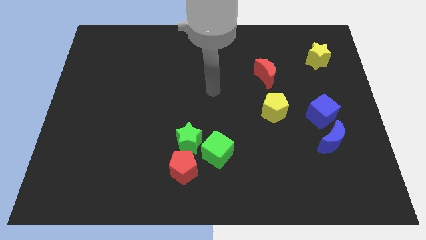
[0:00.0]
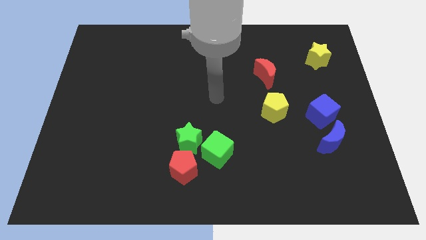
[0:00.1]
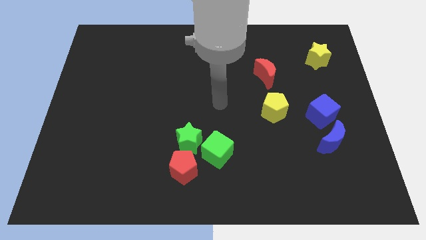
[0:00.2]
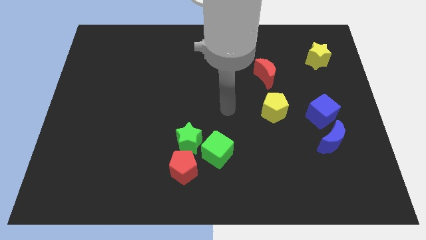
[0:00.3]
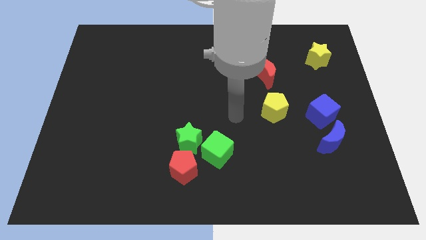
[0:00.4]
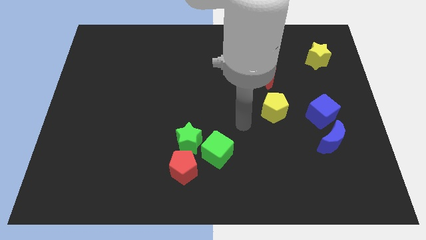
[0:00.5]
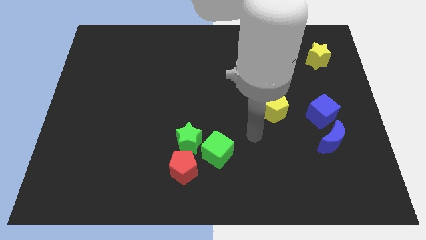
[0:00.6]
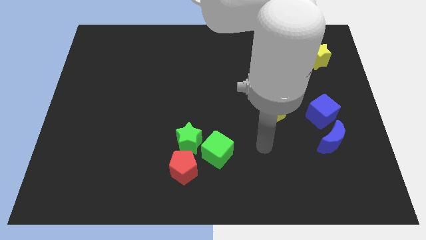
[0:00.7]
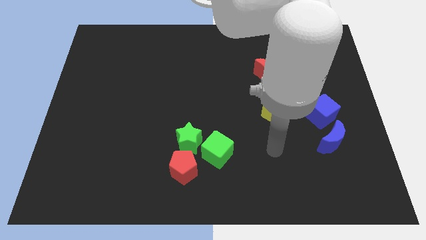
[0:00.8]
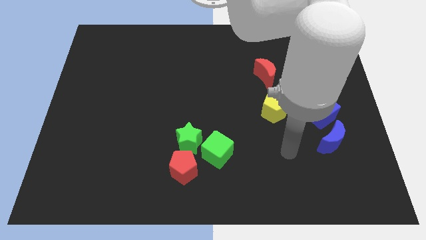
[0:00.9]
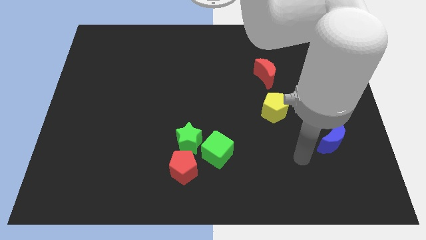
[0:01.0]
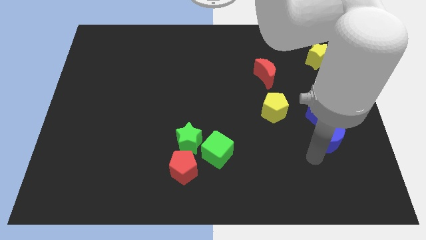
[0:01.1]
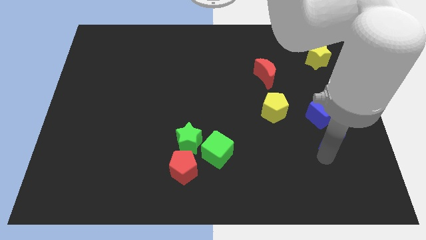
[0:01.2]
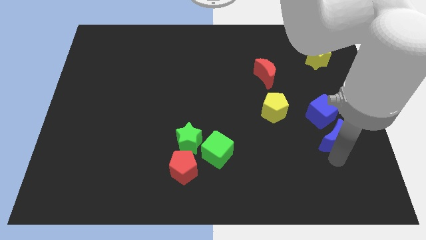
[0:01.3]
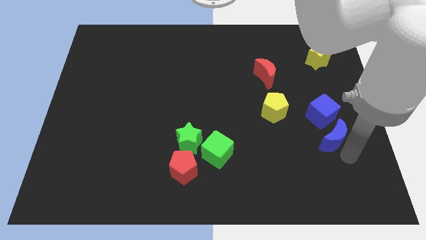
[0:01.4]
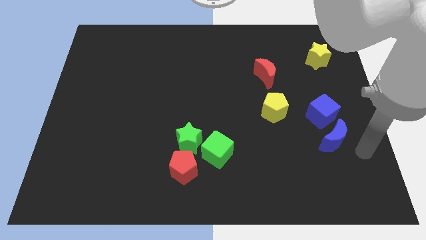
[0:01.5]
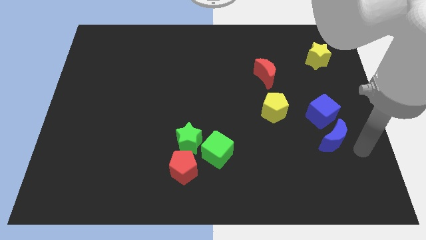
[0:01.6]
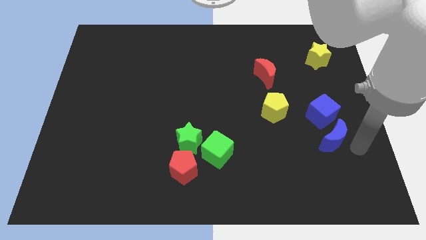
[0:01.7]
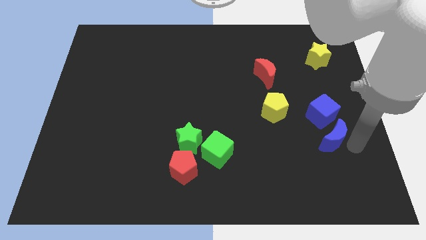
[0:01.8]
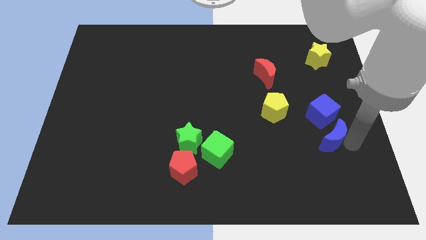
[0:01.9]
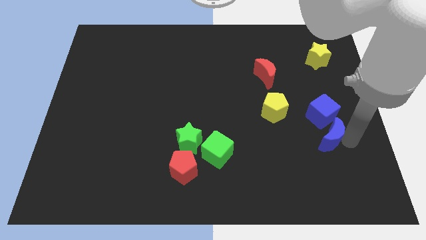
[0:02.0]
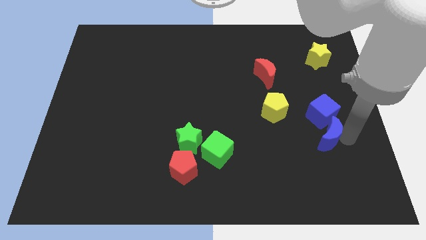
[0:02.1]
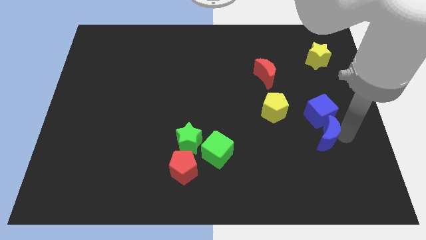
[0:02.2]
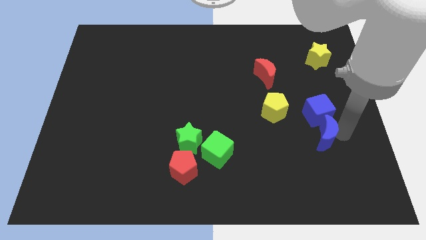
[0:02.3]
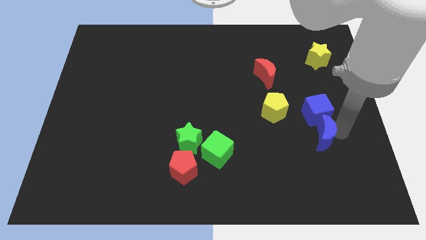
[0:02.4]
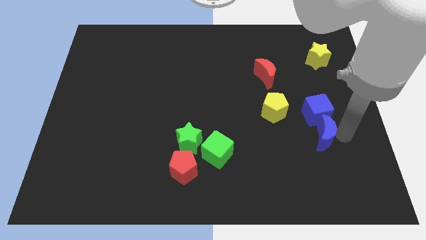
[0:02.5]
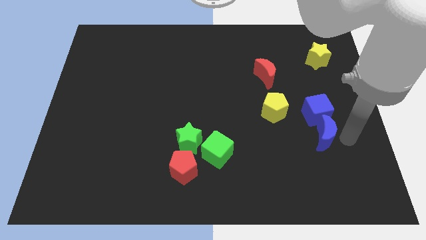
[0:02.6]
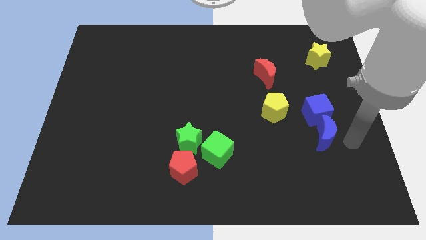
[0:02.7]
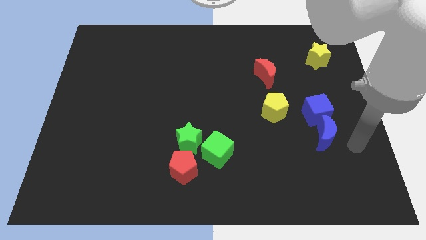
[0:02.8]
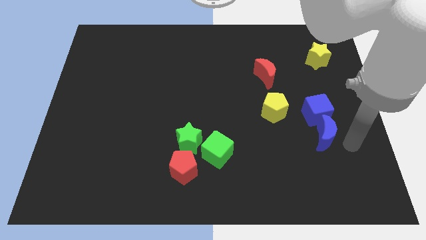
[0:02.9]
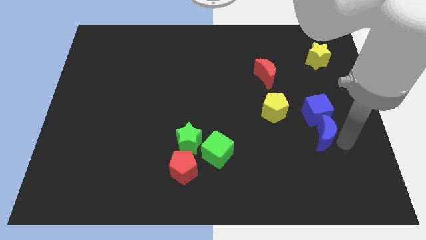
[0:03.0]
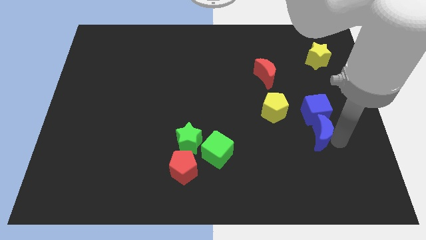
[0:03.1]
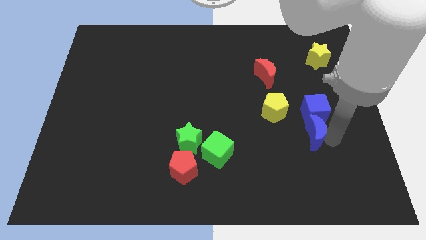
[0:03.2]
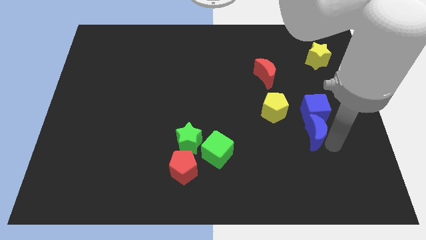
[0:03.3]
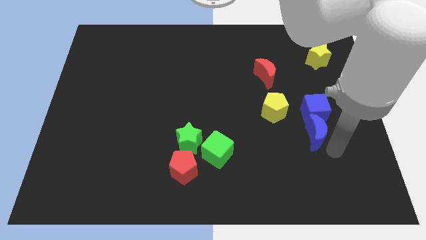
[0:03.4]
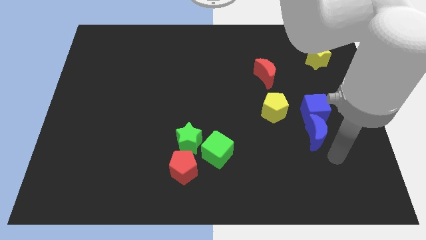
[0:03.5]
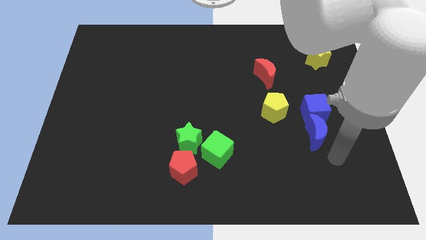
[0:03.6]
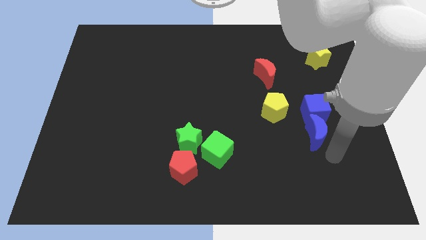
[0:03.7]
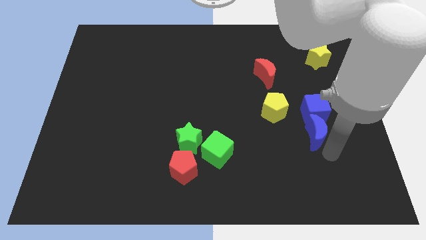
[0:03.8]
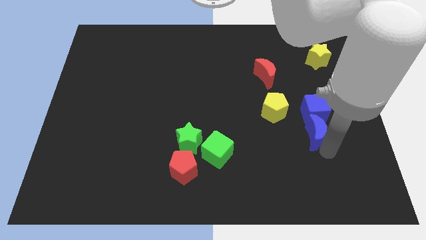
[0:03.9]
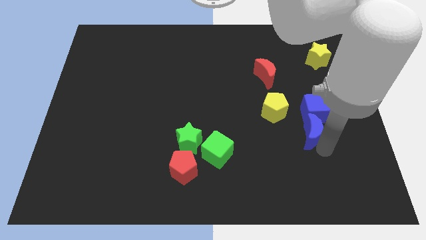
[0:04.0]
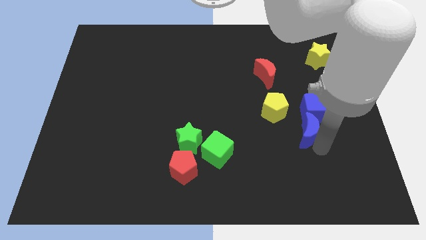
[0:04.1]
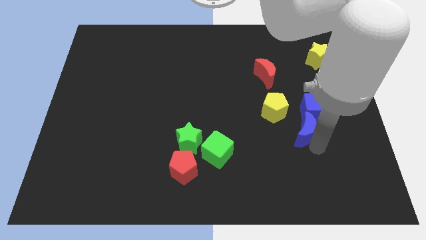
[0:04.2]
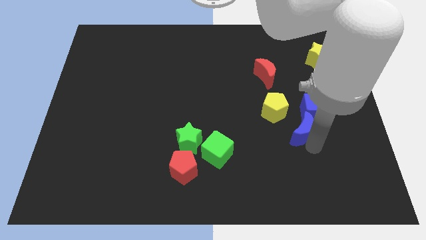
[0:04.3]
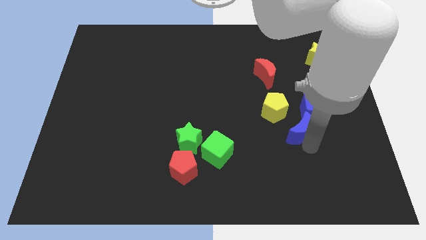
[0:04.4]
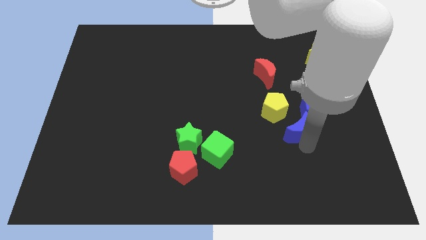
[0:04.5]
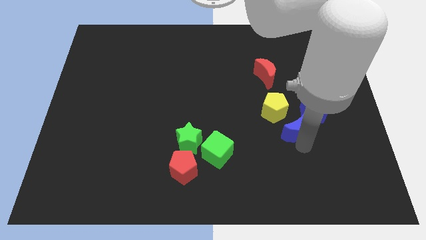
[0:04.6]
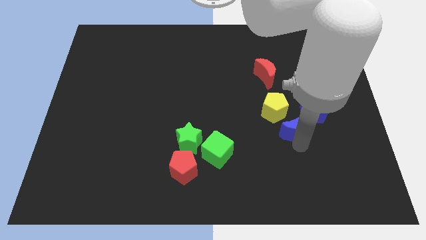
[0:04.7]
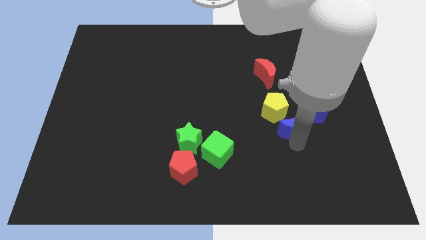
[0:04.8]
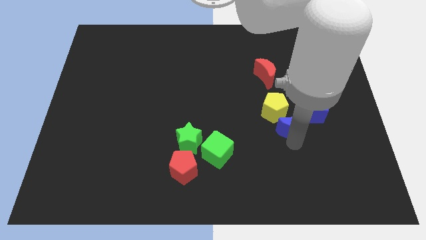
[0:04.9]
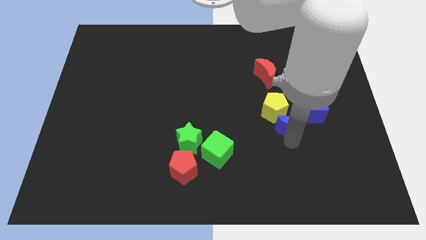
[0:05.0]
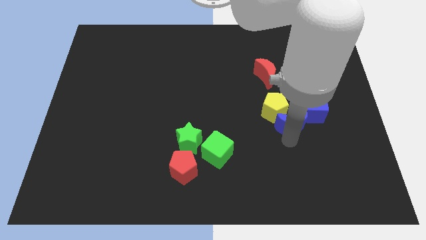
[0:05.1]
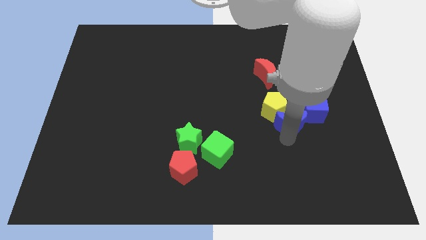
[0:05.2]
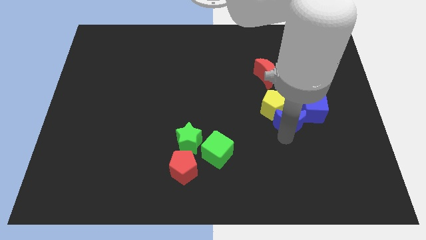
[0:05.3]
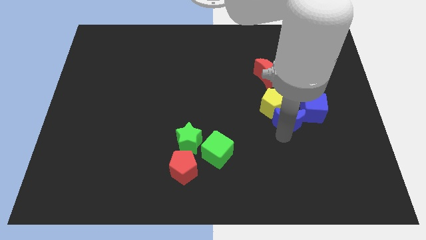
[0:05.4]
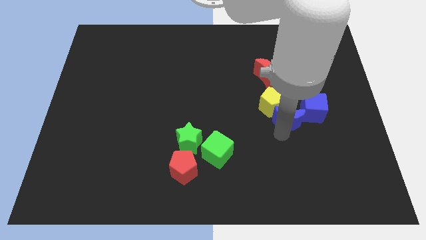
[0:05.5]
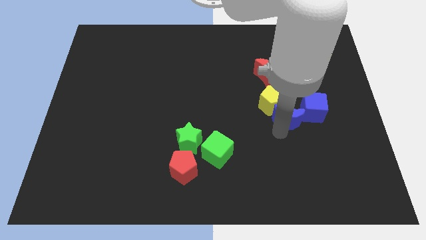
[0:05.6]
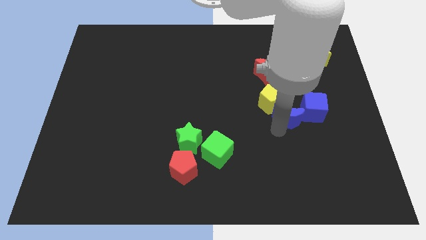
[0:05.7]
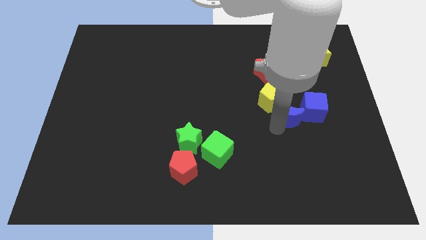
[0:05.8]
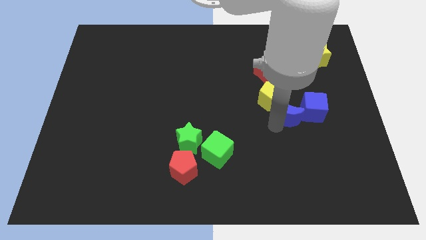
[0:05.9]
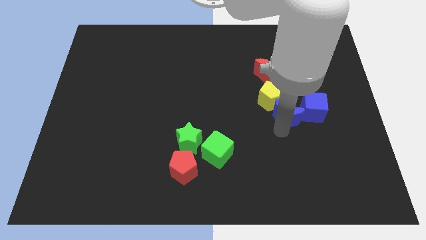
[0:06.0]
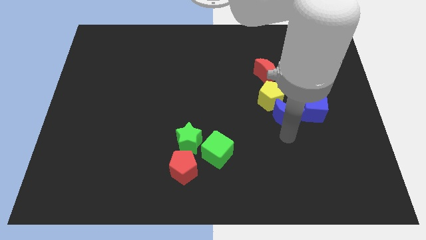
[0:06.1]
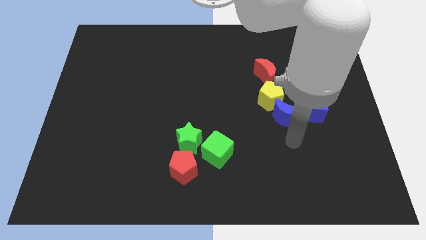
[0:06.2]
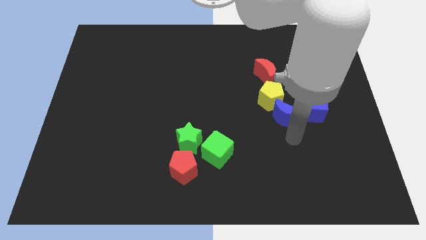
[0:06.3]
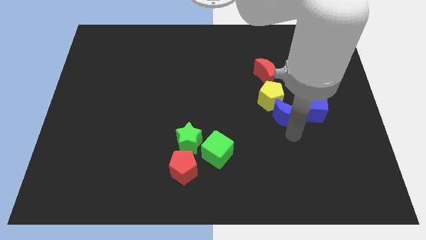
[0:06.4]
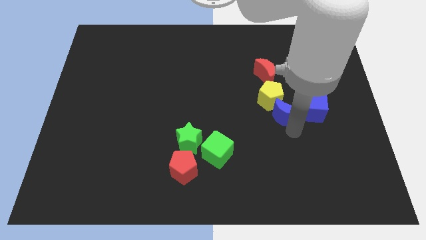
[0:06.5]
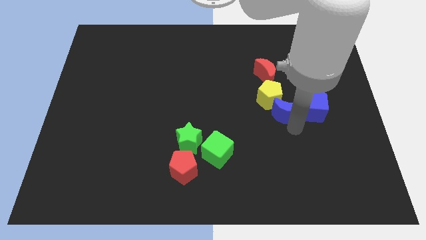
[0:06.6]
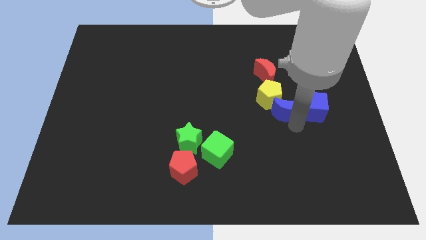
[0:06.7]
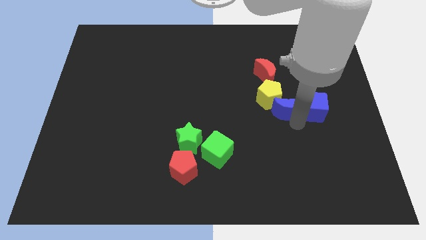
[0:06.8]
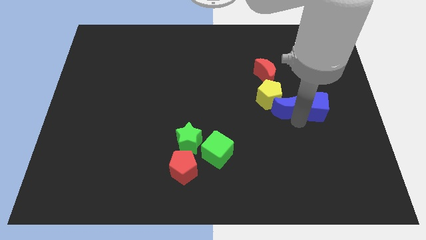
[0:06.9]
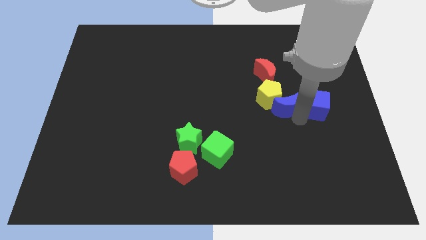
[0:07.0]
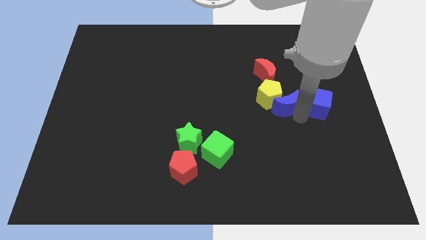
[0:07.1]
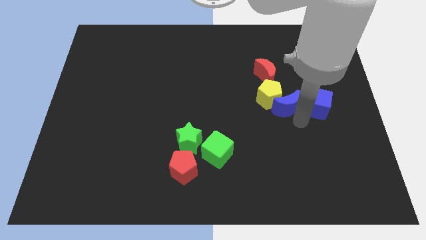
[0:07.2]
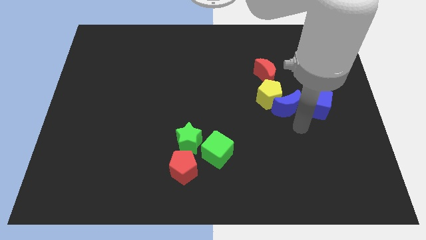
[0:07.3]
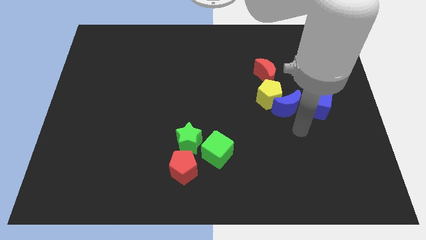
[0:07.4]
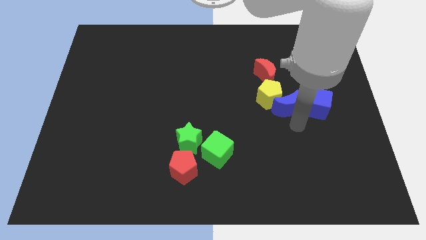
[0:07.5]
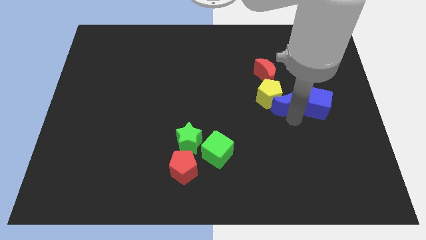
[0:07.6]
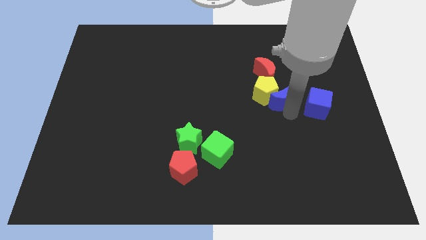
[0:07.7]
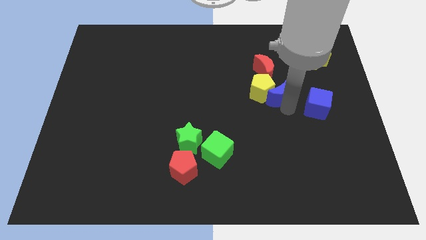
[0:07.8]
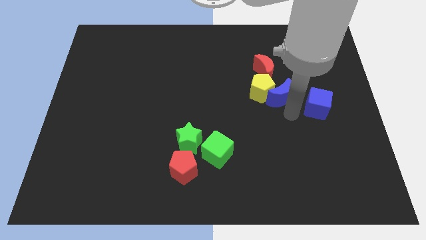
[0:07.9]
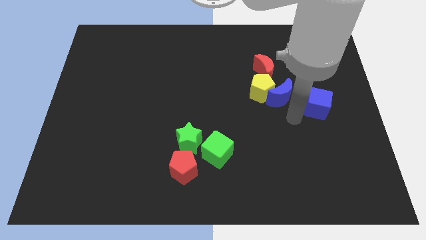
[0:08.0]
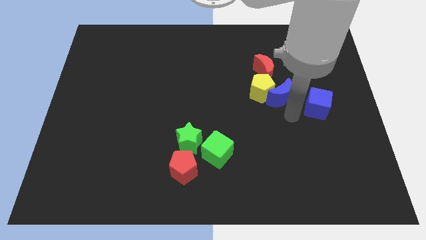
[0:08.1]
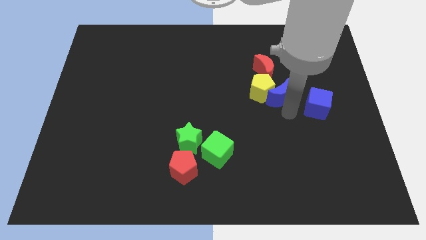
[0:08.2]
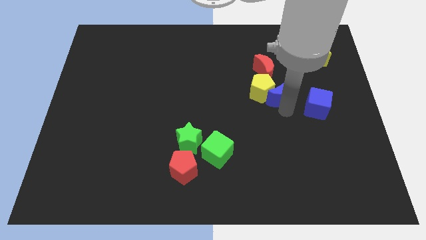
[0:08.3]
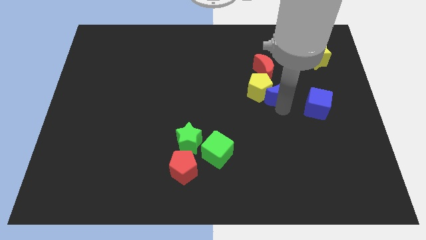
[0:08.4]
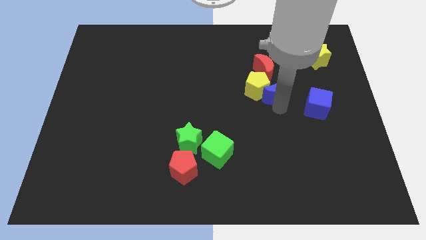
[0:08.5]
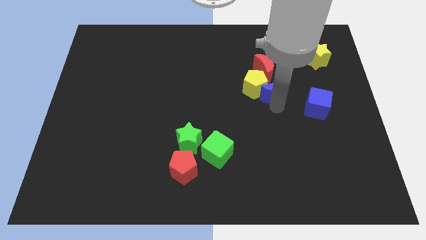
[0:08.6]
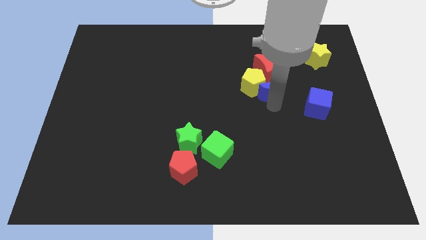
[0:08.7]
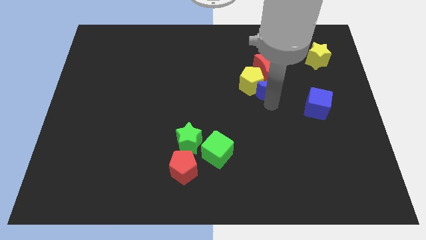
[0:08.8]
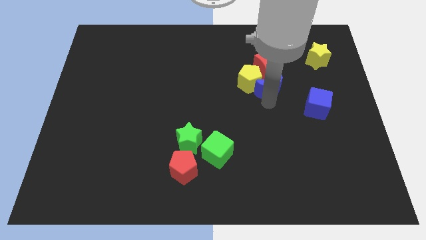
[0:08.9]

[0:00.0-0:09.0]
put the blue moon towards the red moon
